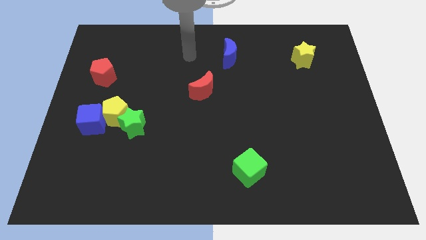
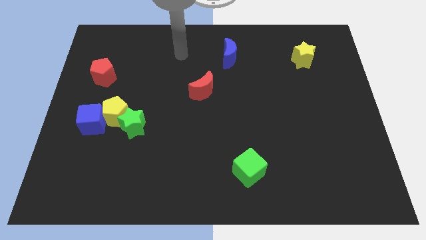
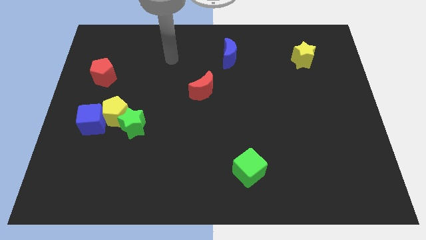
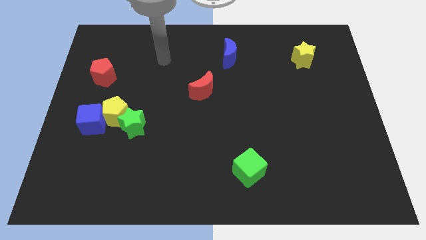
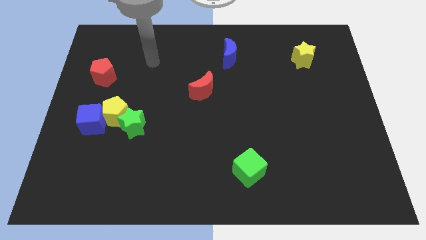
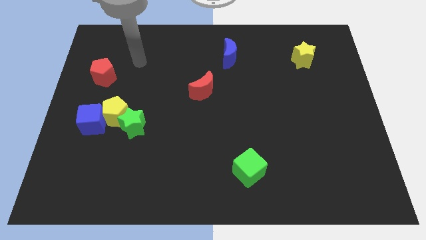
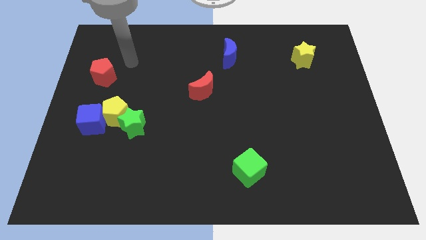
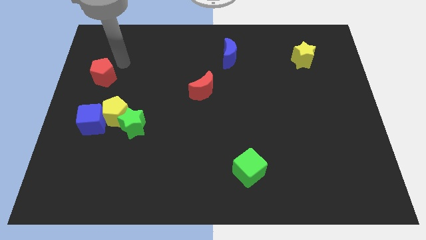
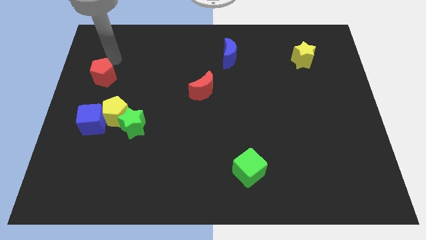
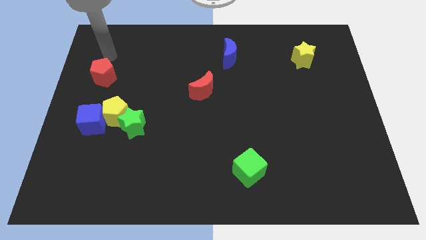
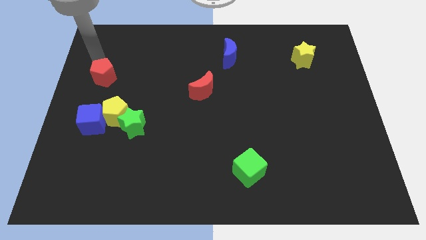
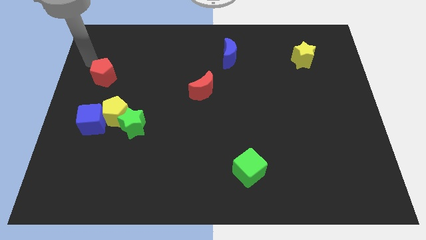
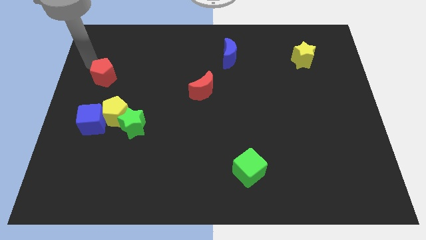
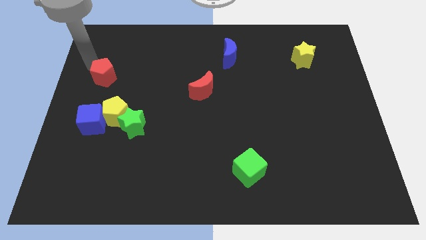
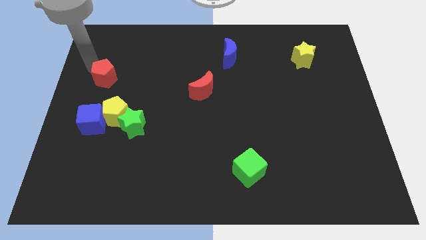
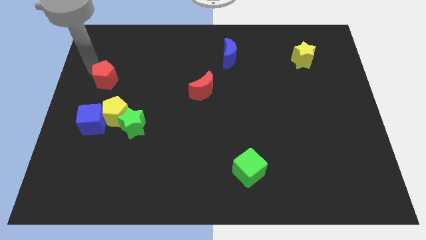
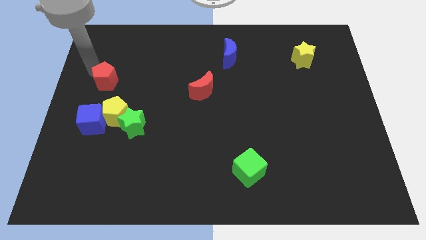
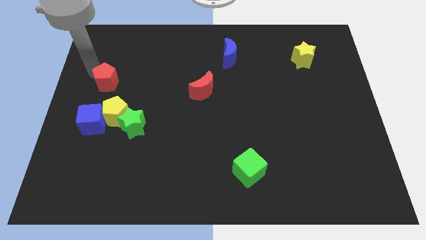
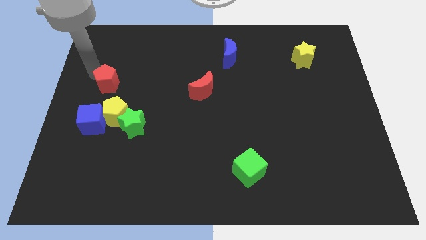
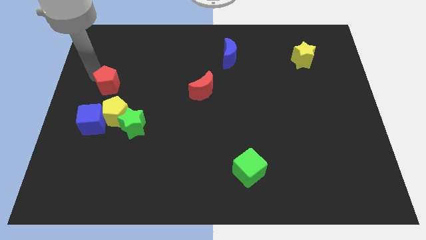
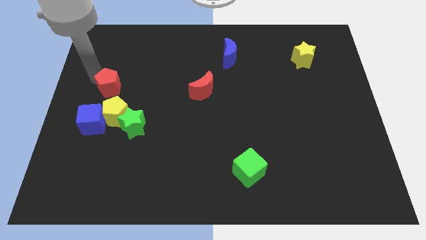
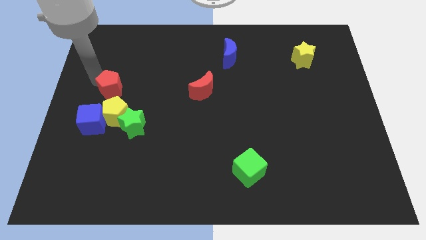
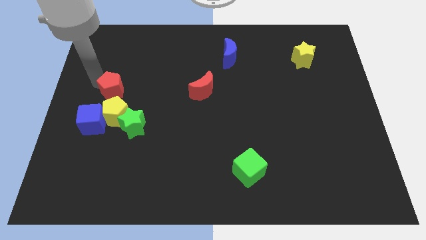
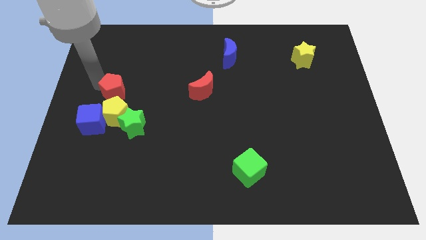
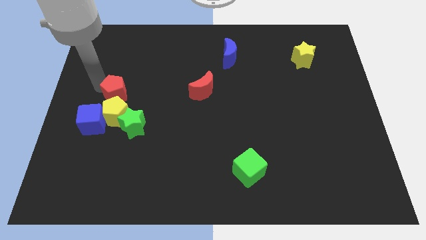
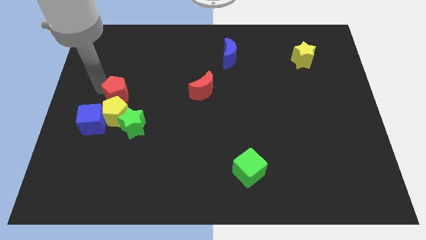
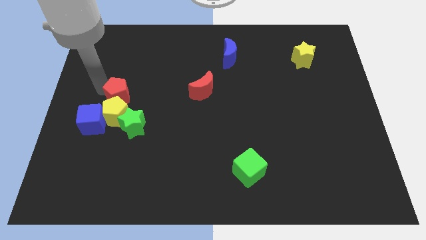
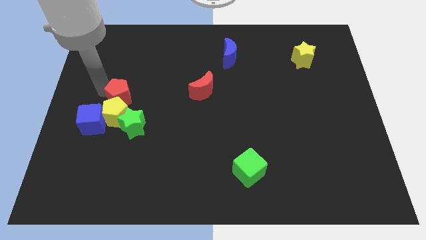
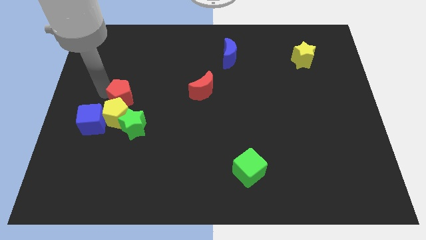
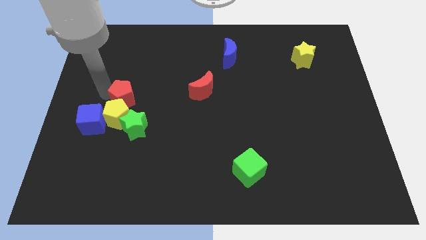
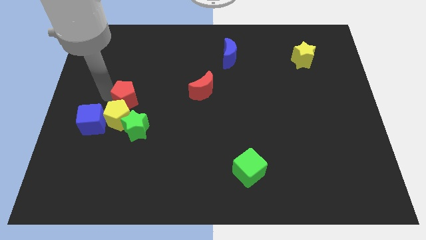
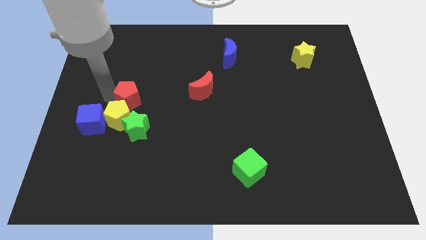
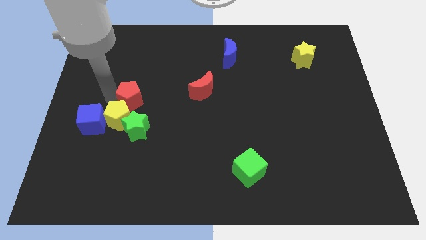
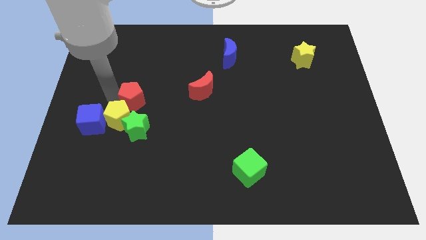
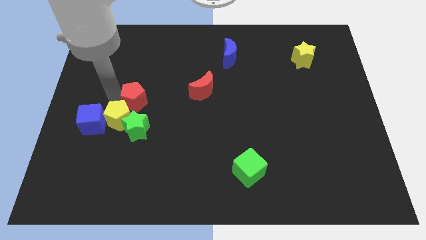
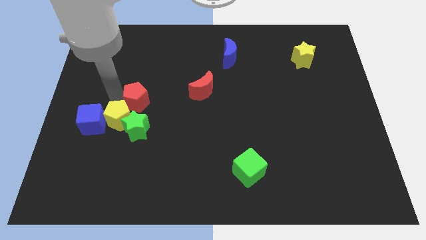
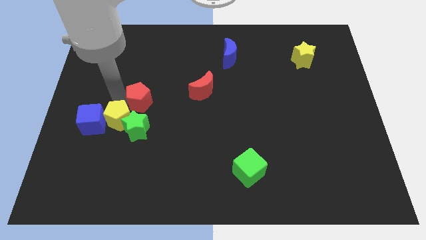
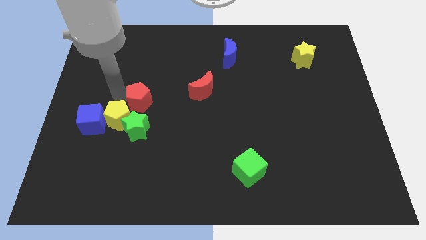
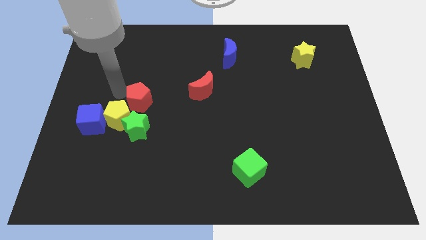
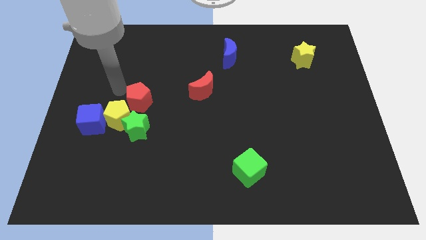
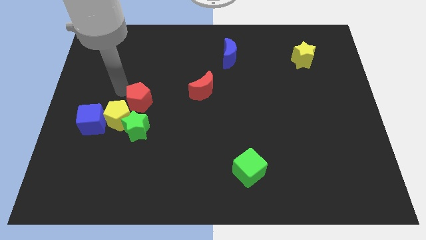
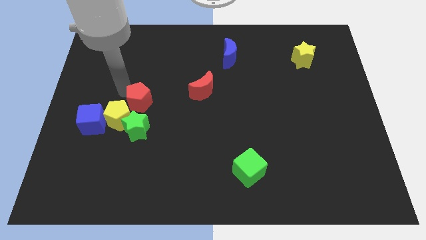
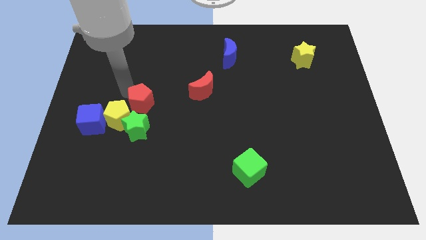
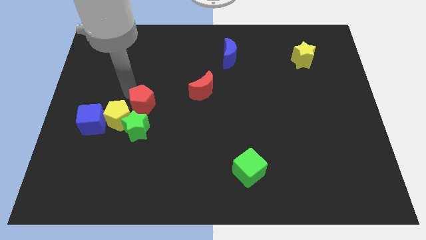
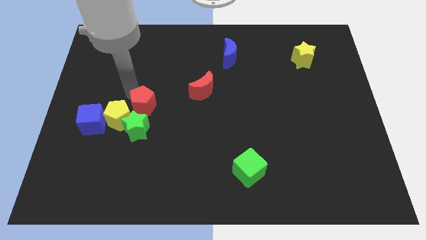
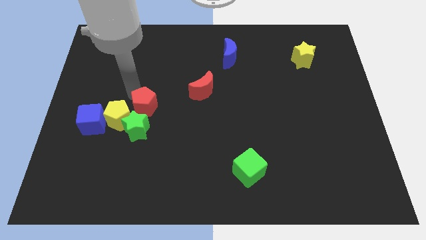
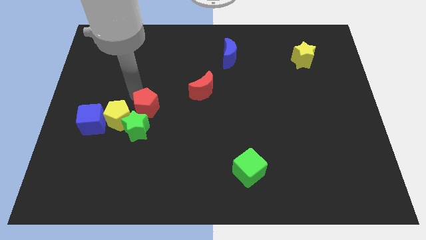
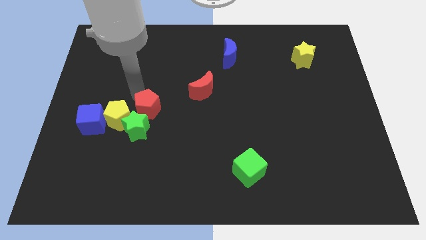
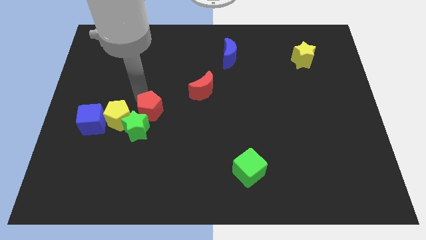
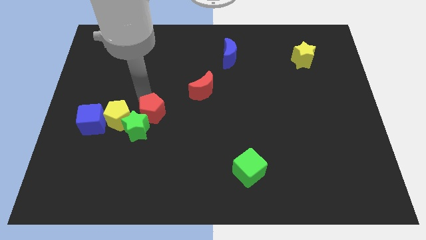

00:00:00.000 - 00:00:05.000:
put the red pentagon right of the green star

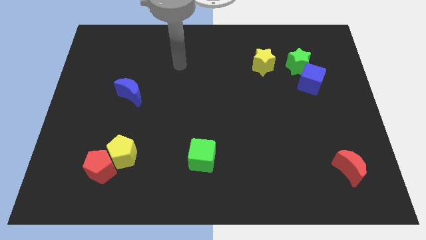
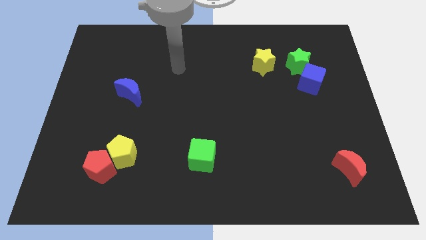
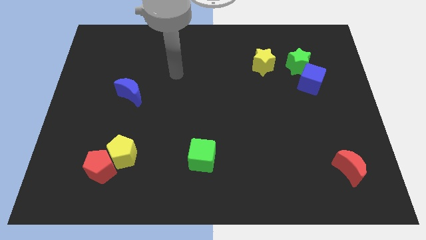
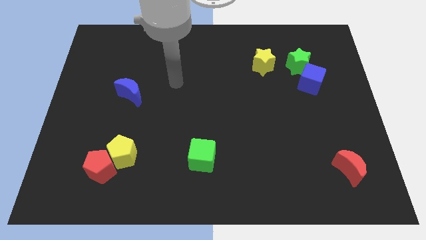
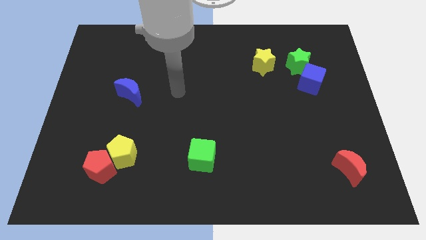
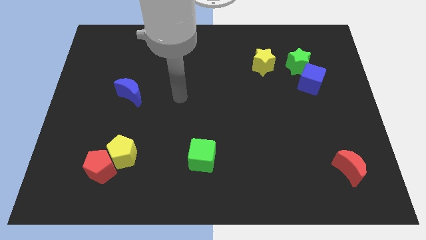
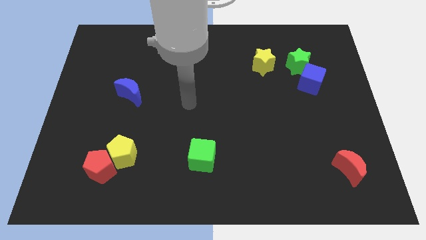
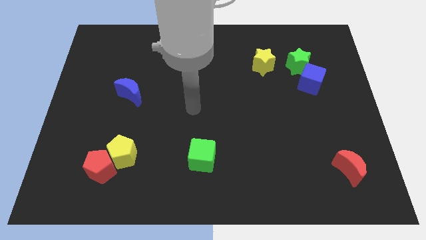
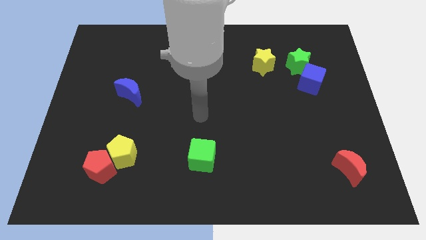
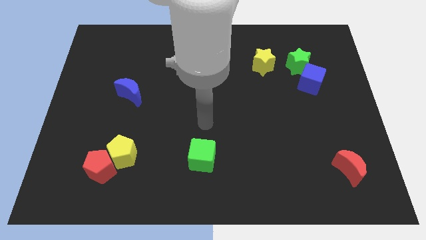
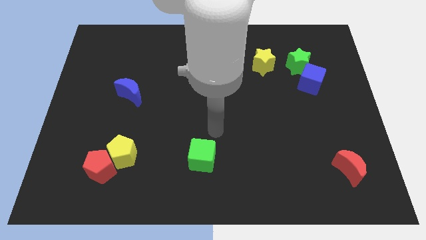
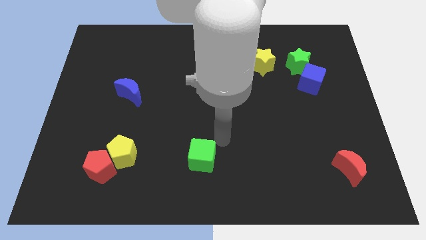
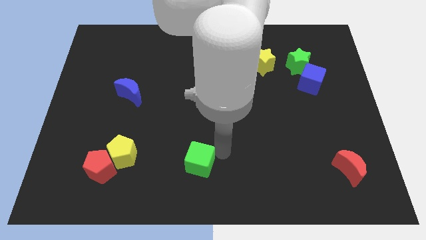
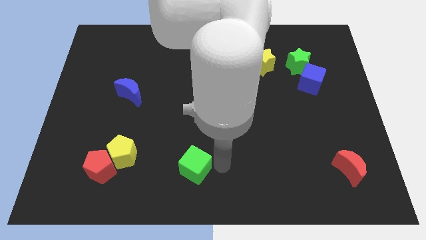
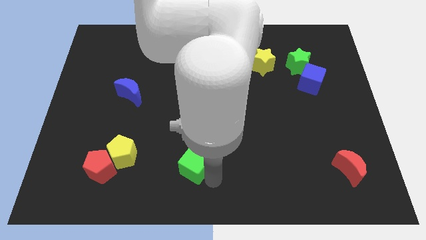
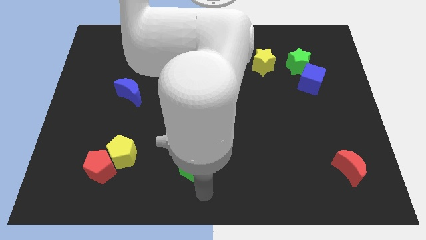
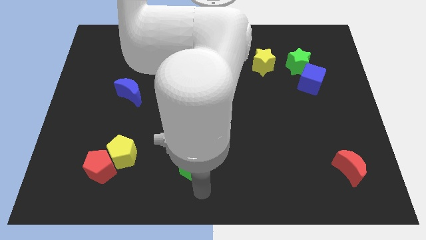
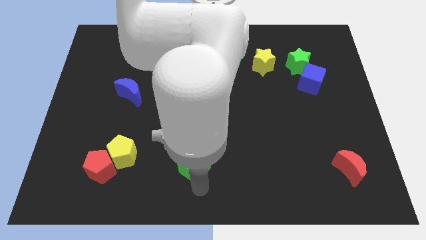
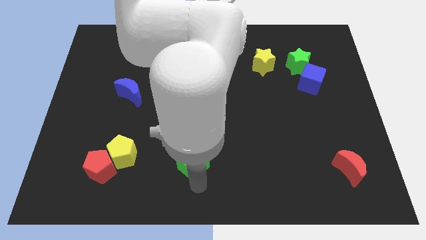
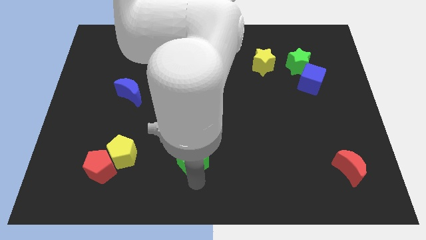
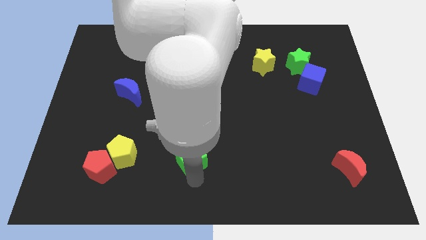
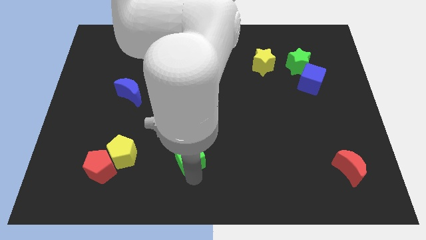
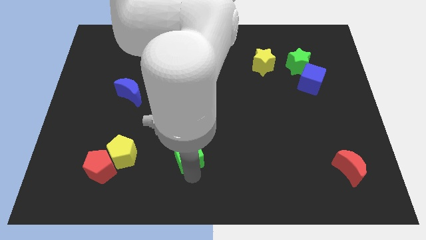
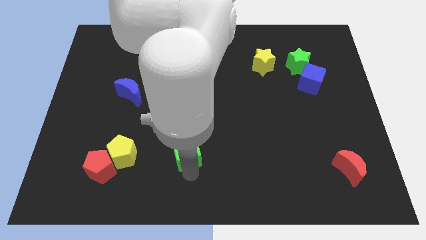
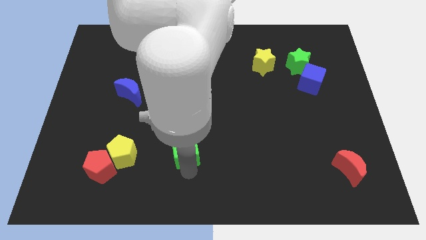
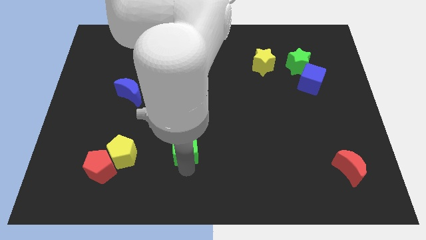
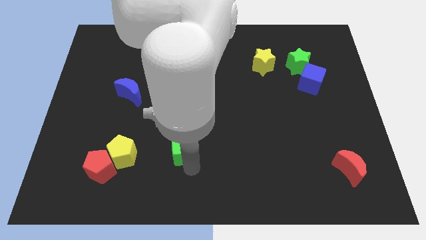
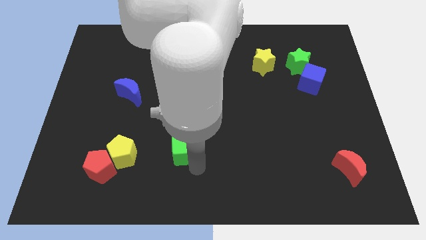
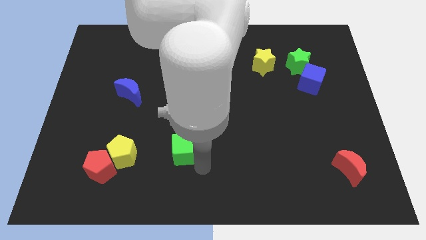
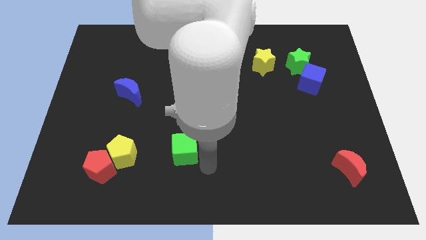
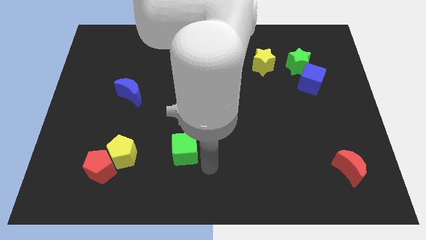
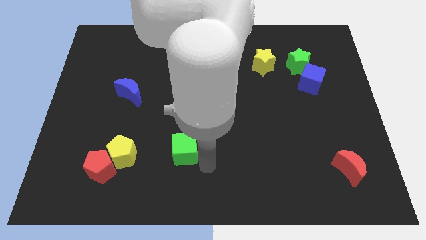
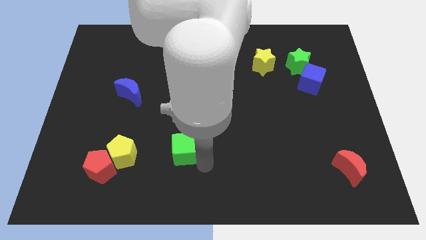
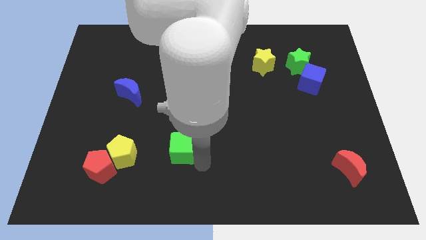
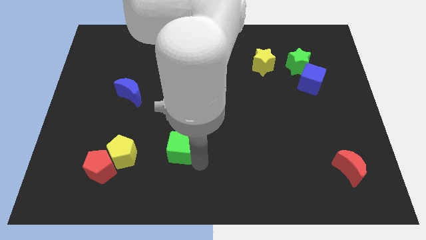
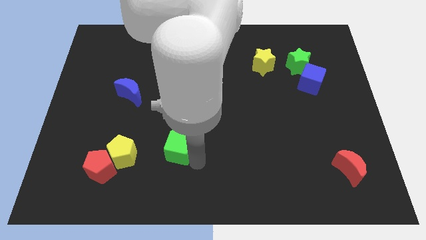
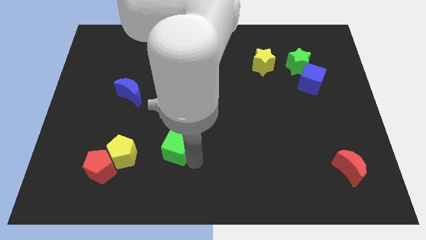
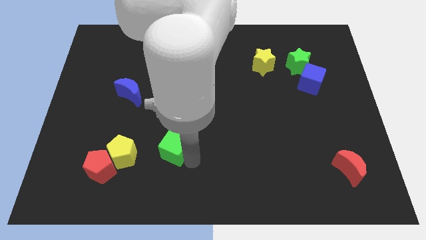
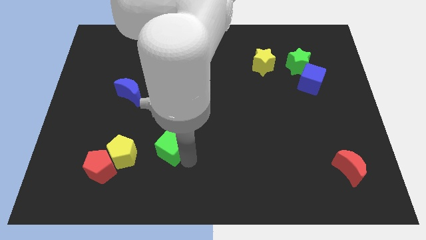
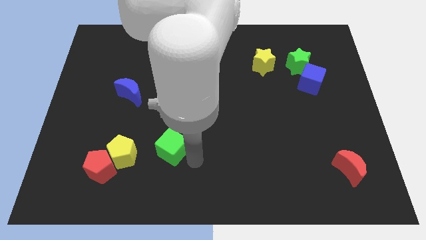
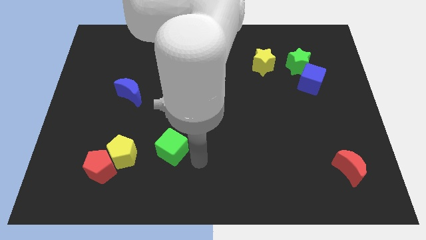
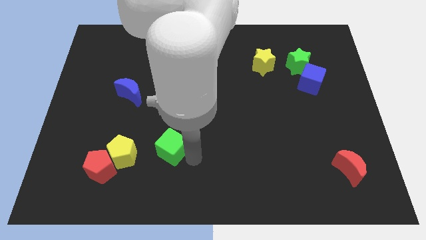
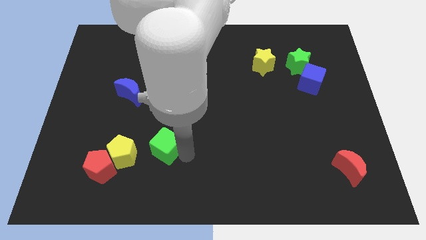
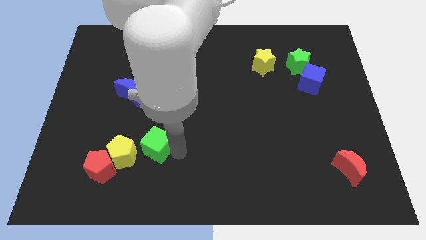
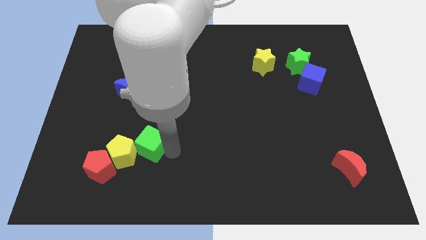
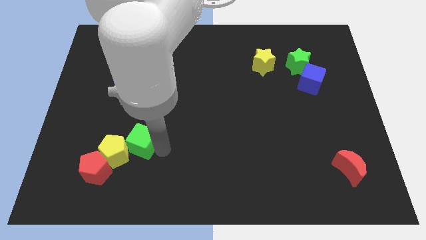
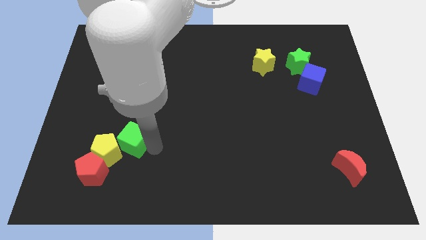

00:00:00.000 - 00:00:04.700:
push the green cube to the bottom of the blue moon
